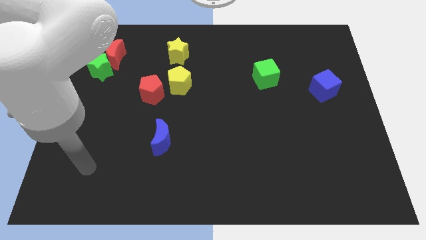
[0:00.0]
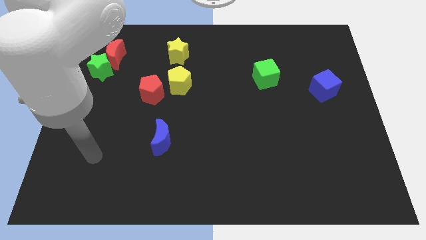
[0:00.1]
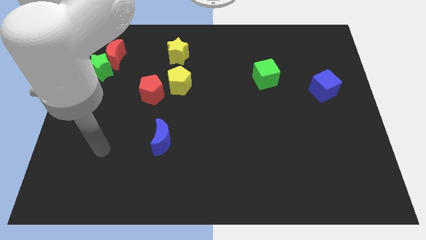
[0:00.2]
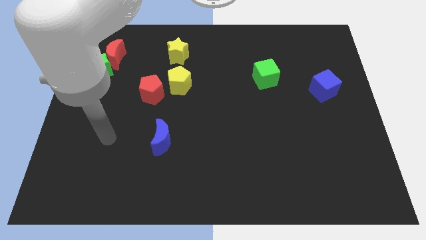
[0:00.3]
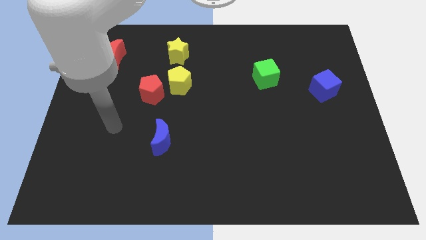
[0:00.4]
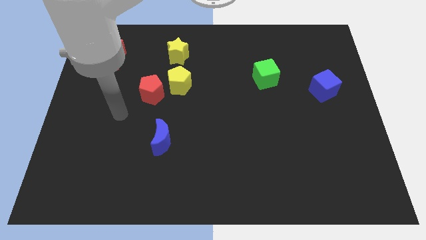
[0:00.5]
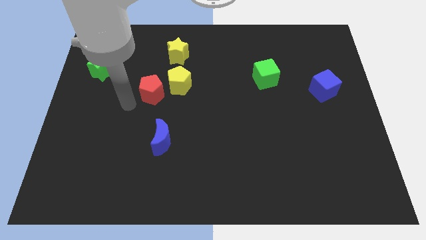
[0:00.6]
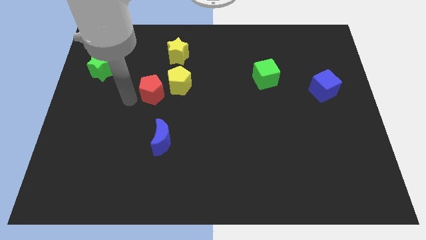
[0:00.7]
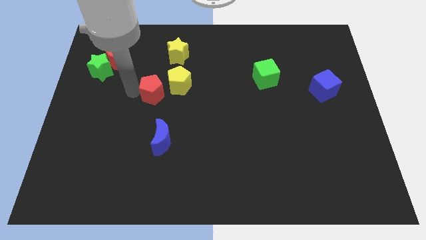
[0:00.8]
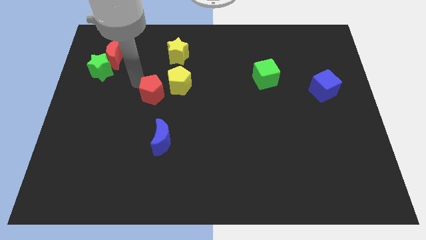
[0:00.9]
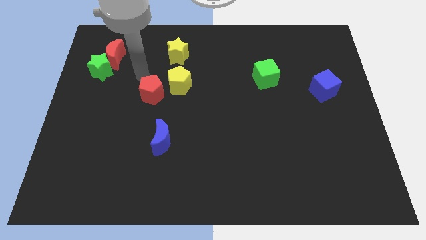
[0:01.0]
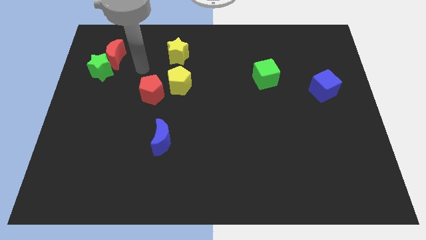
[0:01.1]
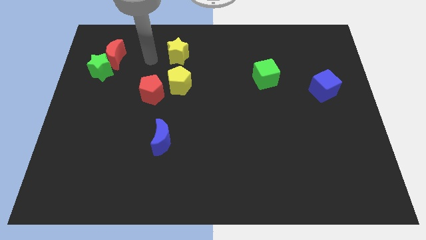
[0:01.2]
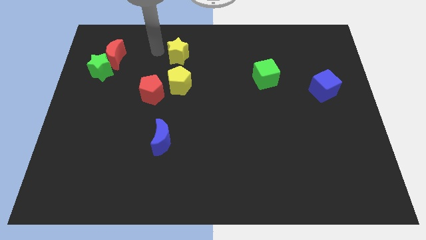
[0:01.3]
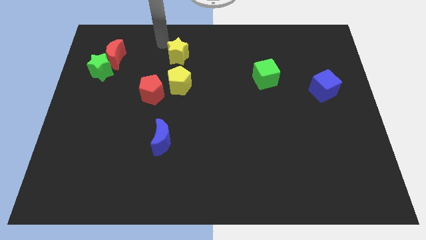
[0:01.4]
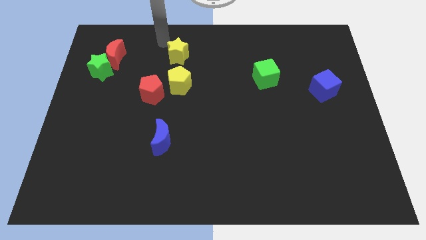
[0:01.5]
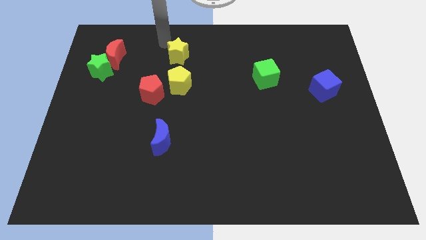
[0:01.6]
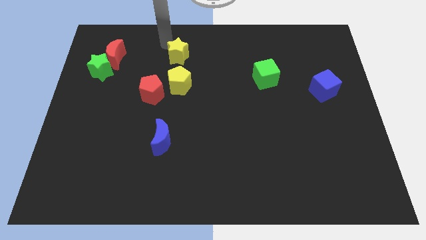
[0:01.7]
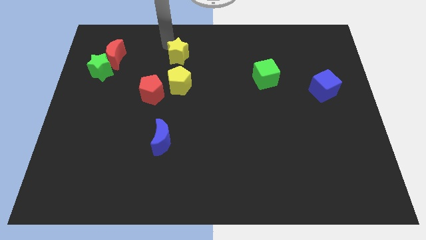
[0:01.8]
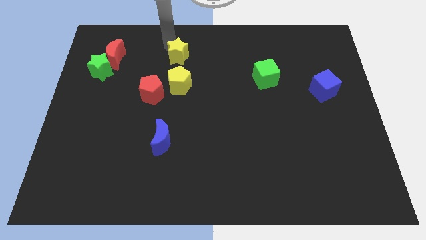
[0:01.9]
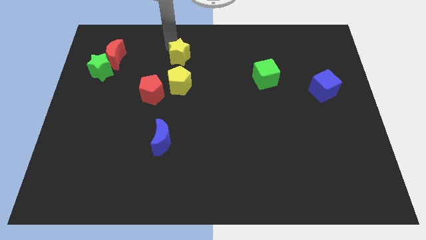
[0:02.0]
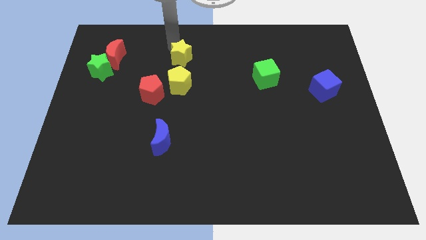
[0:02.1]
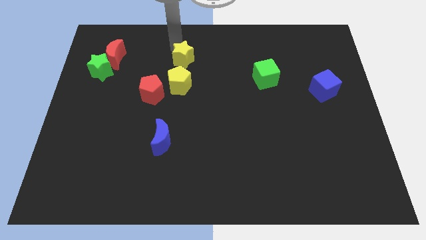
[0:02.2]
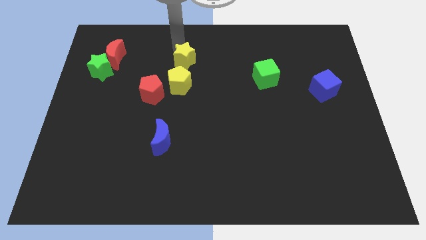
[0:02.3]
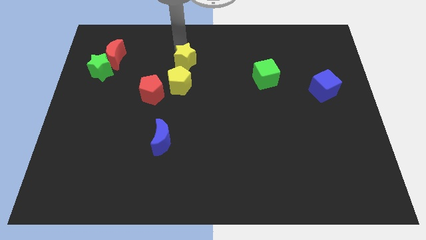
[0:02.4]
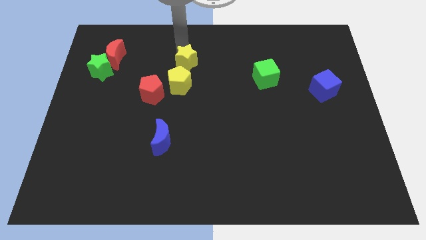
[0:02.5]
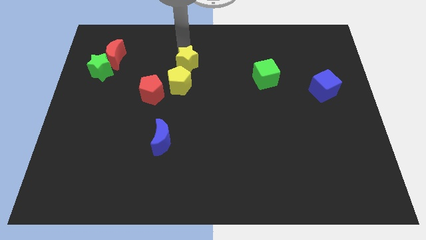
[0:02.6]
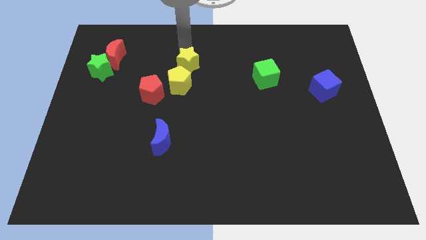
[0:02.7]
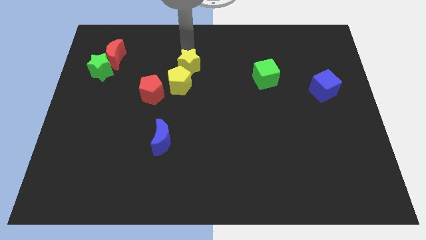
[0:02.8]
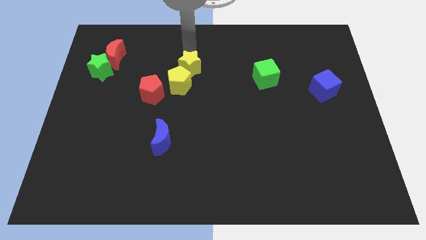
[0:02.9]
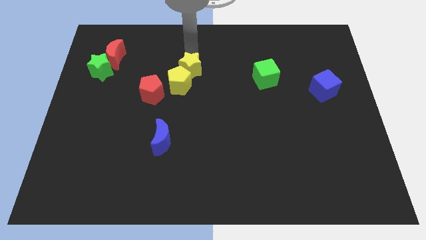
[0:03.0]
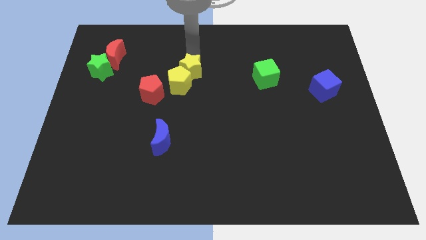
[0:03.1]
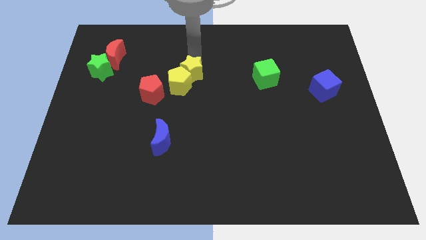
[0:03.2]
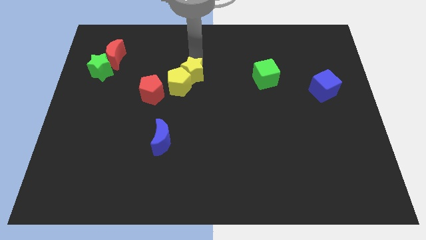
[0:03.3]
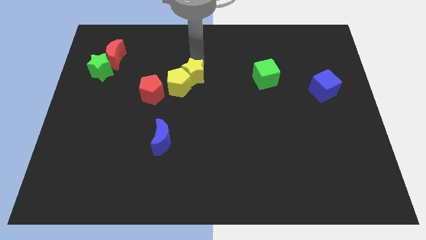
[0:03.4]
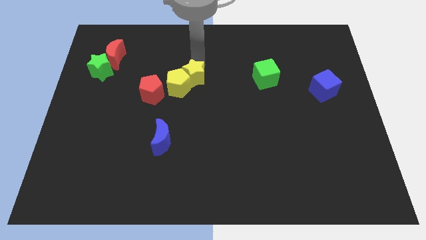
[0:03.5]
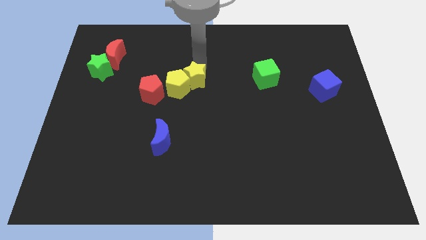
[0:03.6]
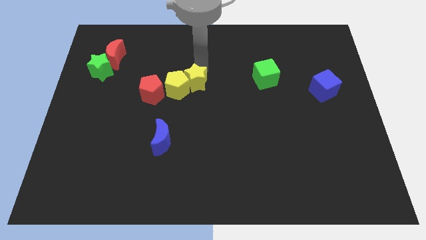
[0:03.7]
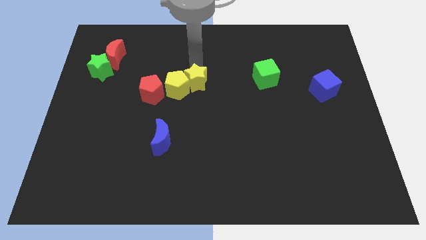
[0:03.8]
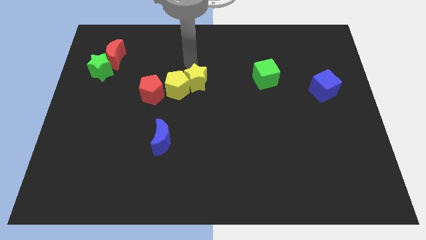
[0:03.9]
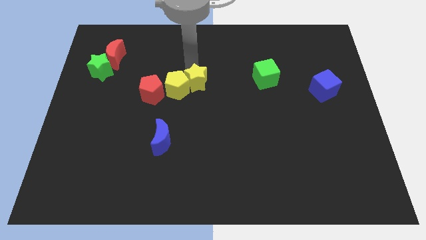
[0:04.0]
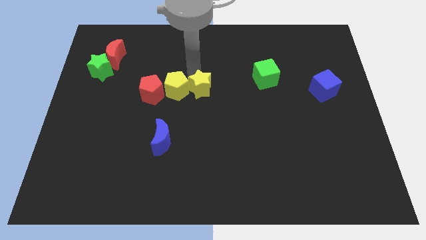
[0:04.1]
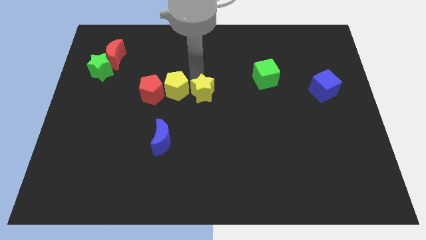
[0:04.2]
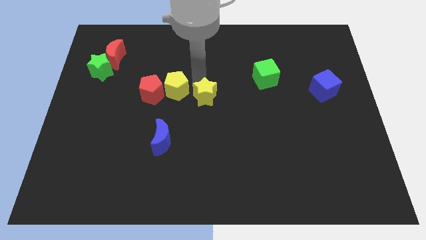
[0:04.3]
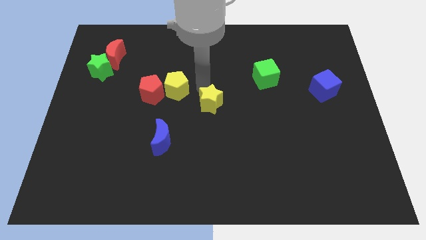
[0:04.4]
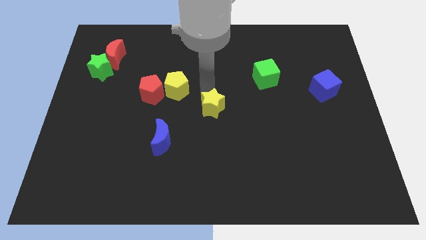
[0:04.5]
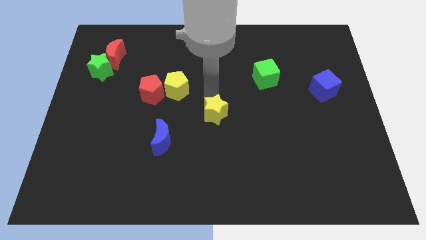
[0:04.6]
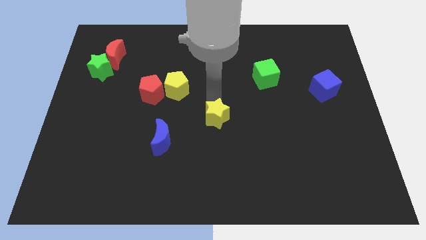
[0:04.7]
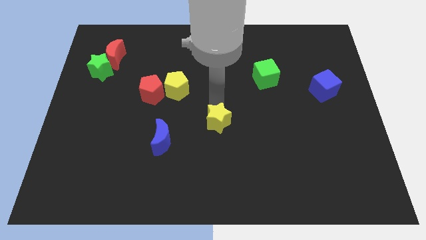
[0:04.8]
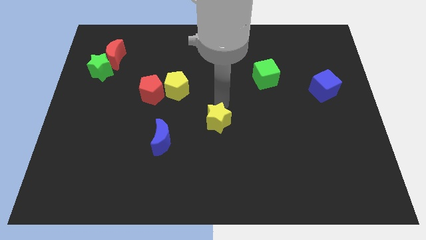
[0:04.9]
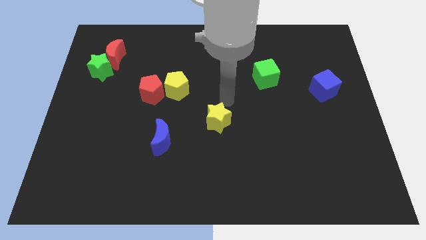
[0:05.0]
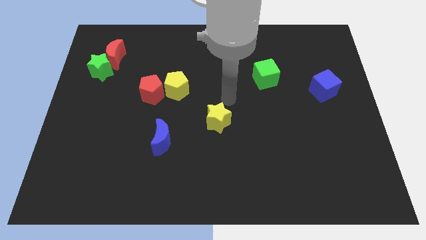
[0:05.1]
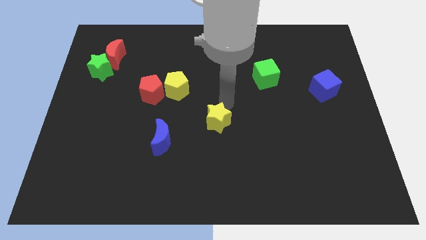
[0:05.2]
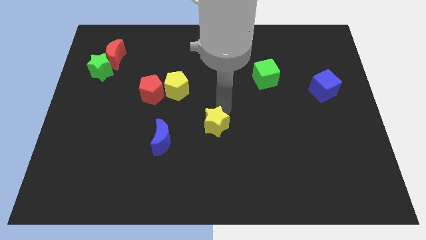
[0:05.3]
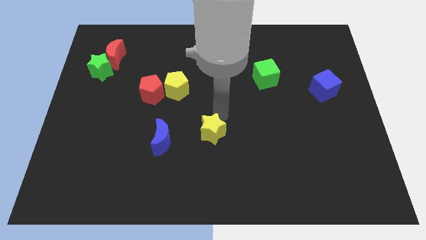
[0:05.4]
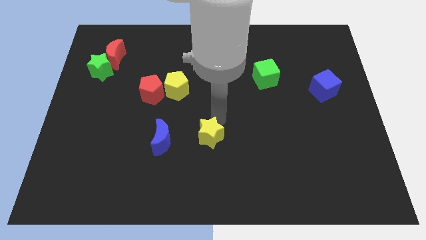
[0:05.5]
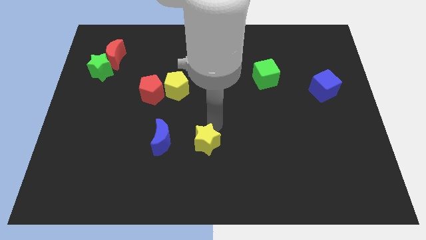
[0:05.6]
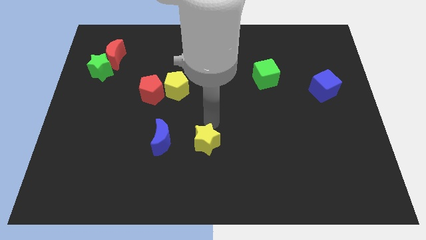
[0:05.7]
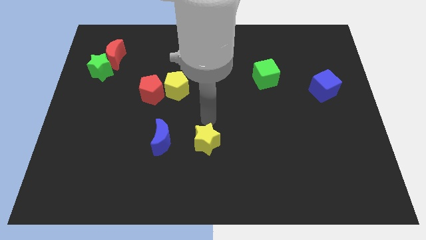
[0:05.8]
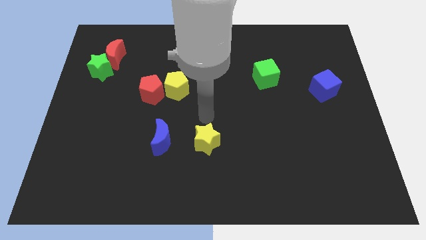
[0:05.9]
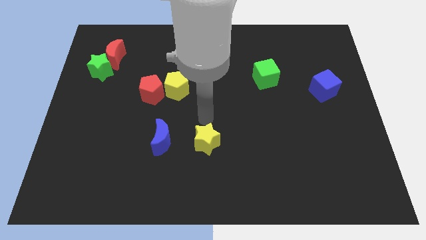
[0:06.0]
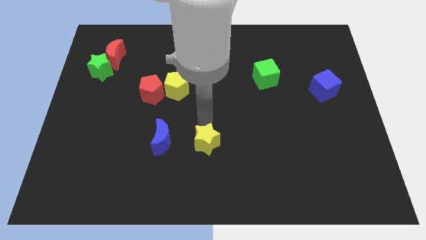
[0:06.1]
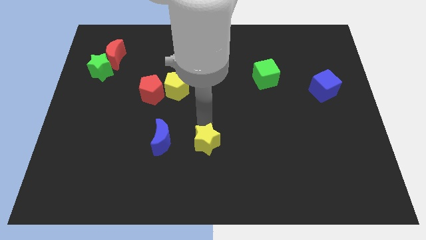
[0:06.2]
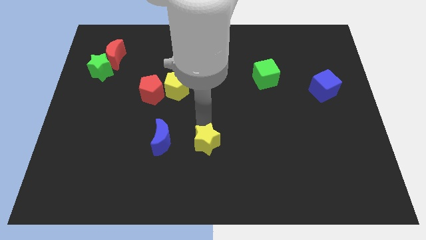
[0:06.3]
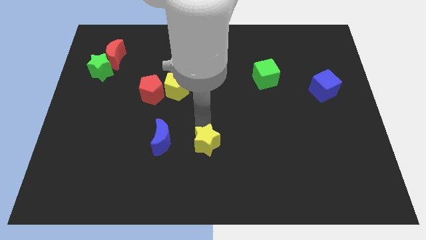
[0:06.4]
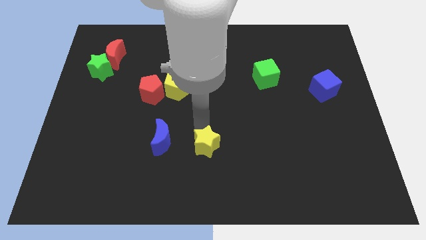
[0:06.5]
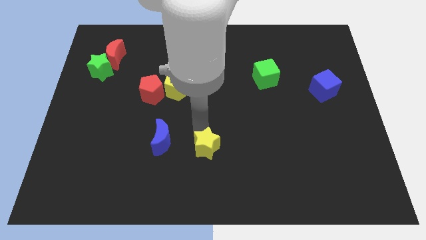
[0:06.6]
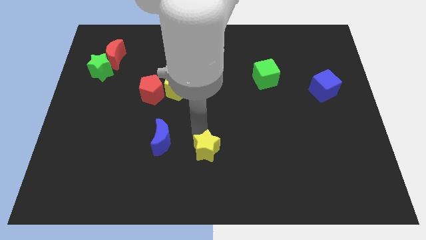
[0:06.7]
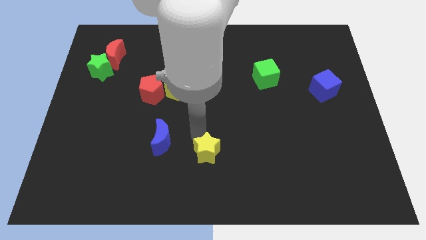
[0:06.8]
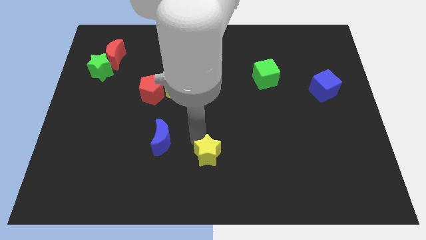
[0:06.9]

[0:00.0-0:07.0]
slide the yellow star to the bottom

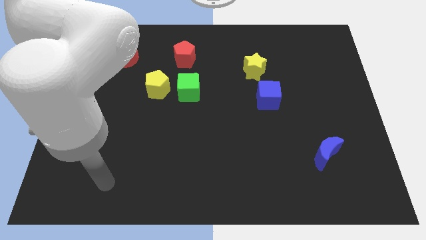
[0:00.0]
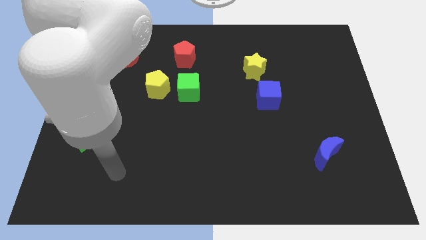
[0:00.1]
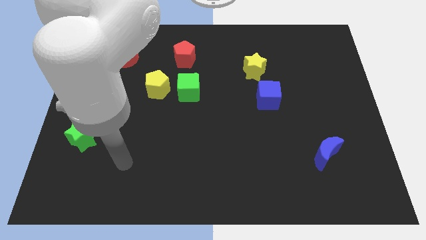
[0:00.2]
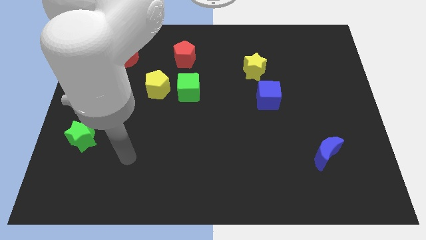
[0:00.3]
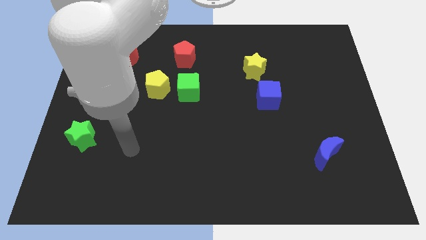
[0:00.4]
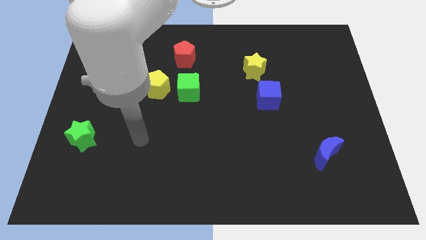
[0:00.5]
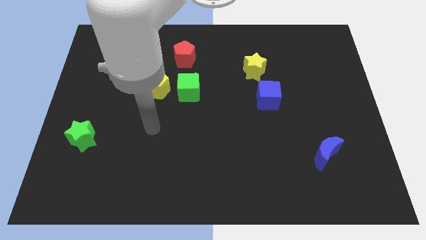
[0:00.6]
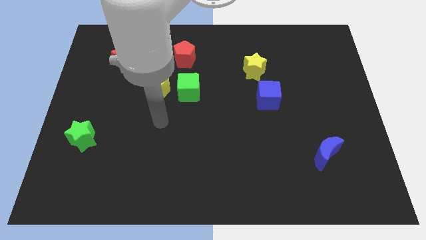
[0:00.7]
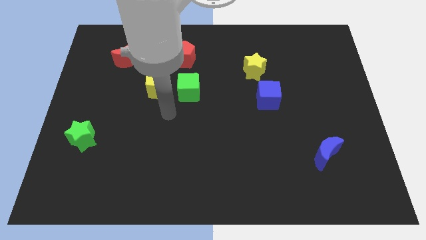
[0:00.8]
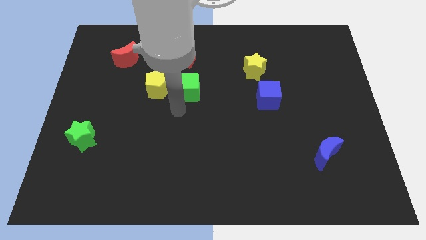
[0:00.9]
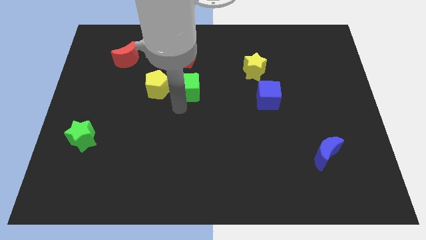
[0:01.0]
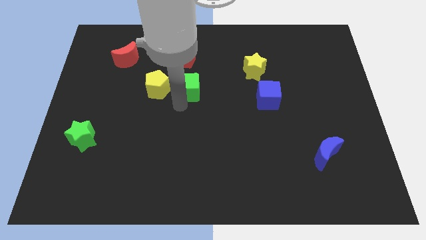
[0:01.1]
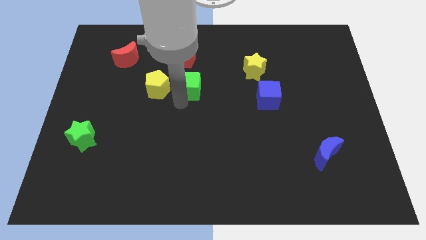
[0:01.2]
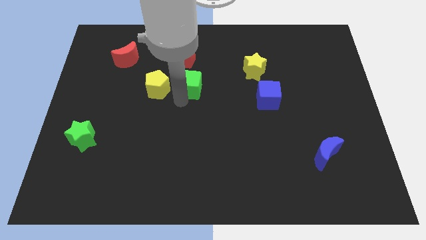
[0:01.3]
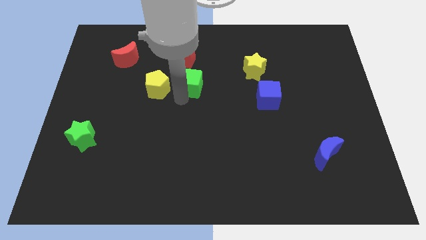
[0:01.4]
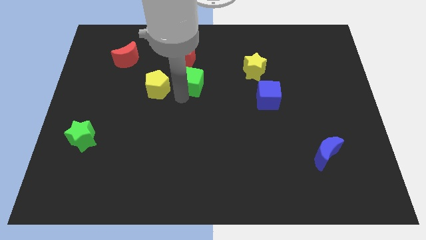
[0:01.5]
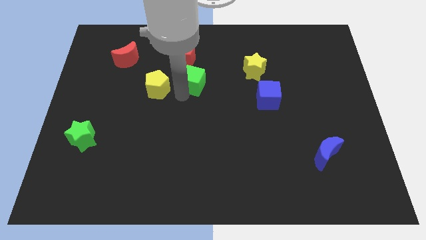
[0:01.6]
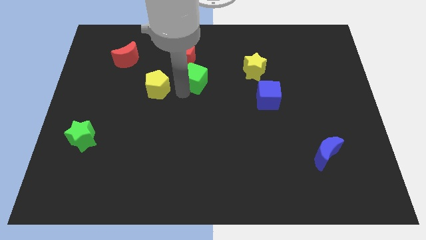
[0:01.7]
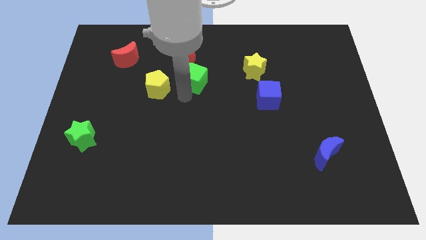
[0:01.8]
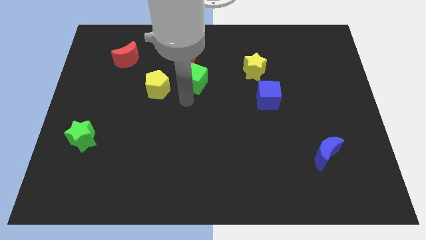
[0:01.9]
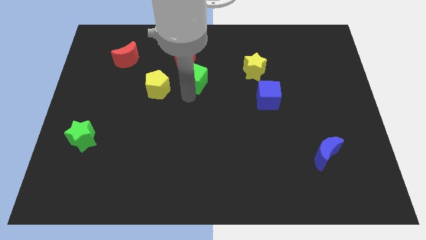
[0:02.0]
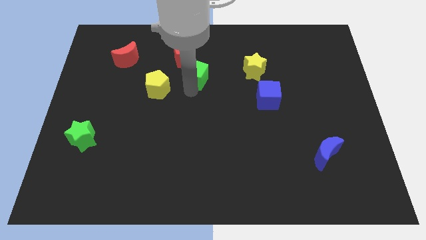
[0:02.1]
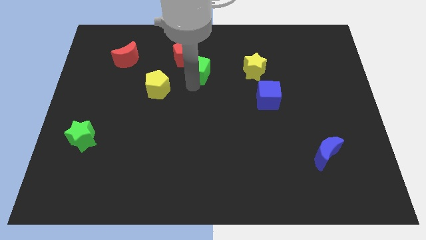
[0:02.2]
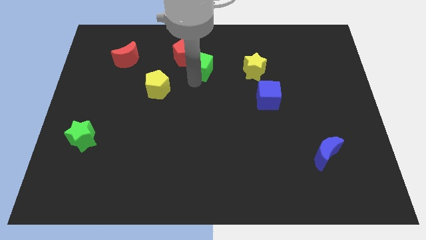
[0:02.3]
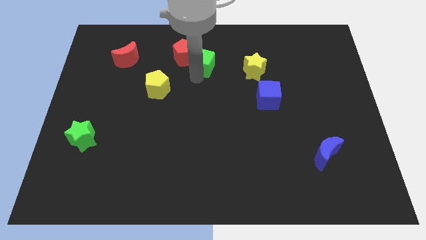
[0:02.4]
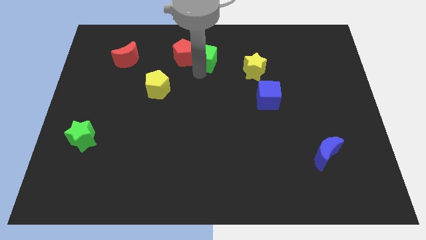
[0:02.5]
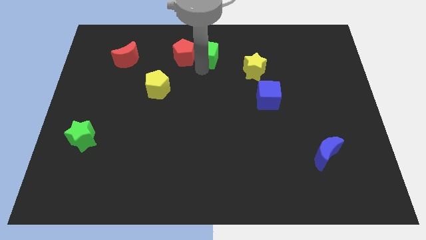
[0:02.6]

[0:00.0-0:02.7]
push the green cube to the towards your base
